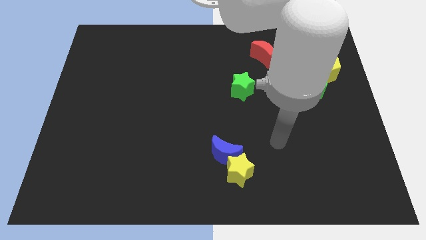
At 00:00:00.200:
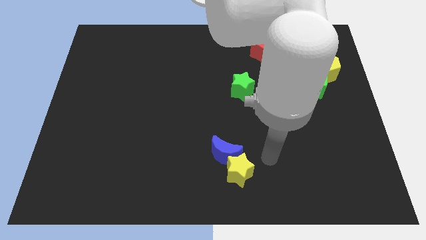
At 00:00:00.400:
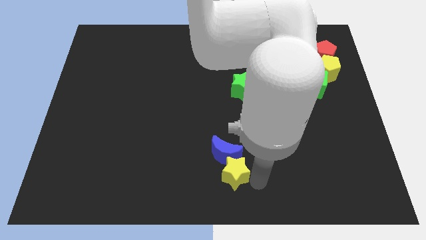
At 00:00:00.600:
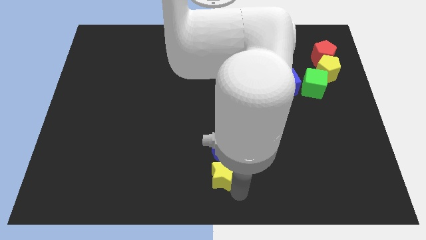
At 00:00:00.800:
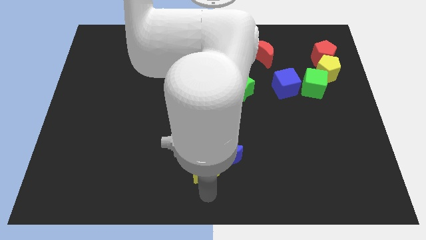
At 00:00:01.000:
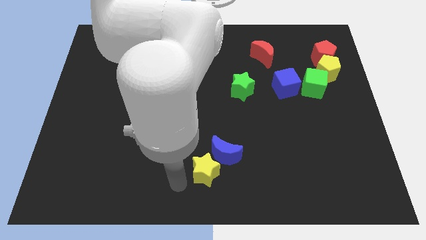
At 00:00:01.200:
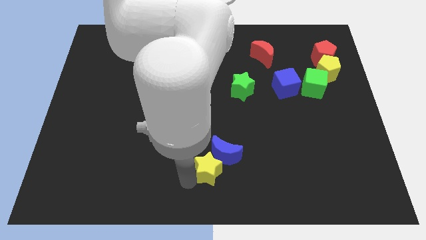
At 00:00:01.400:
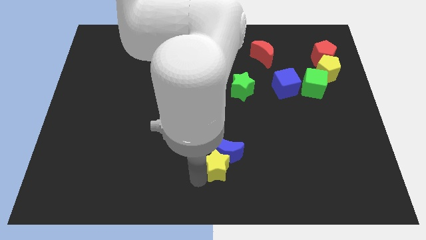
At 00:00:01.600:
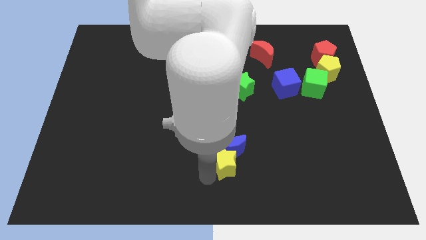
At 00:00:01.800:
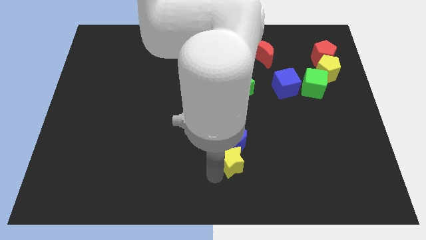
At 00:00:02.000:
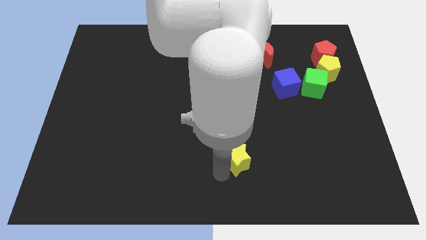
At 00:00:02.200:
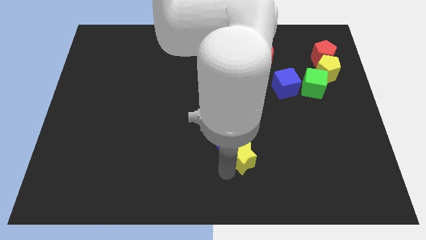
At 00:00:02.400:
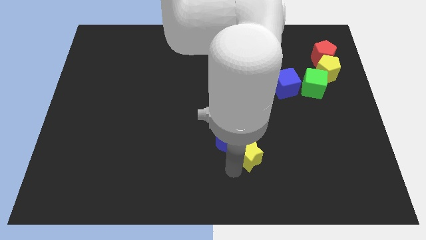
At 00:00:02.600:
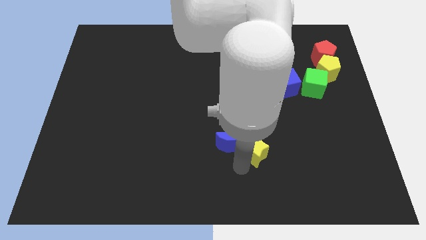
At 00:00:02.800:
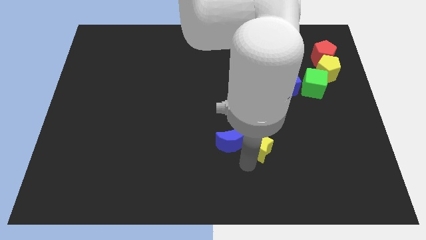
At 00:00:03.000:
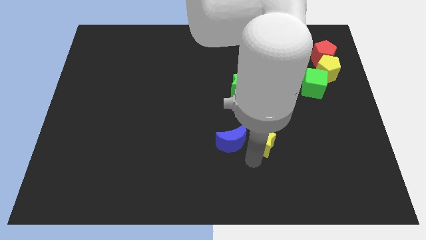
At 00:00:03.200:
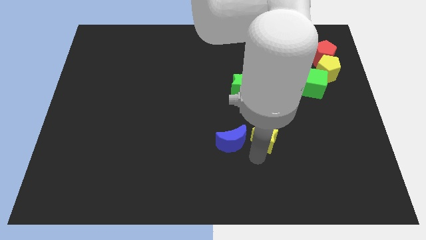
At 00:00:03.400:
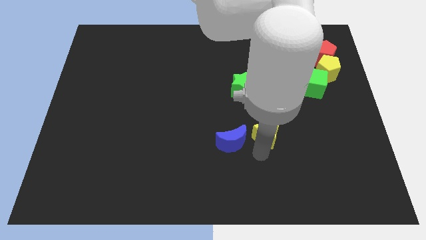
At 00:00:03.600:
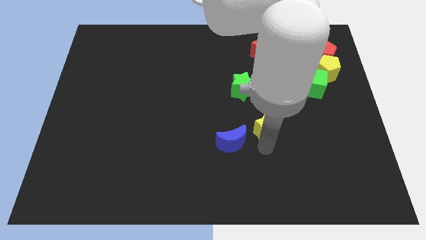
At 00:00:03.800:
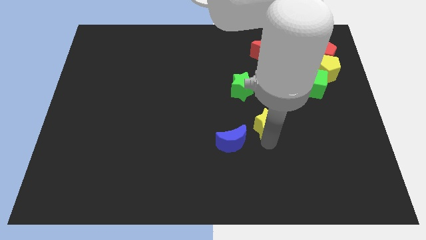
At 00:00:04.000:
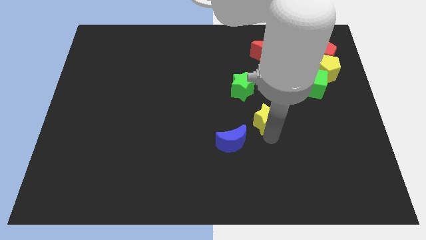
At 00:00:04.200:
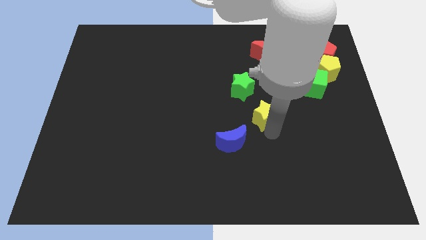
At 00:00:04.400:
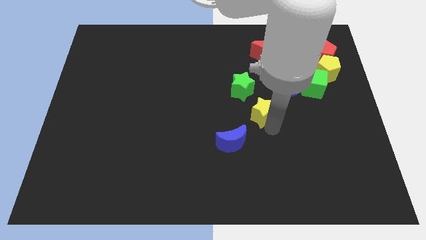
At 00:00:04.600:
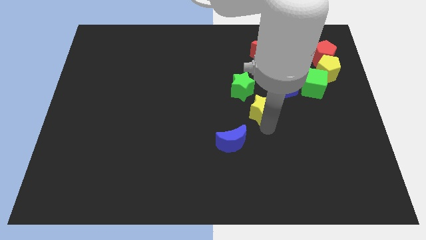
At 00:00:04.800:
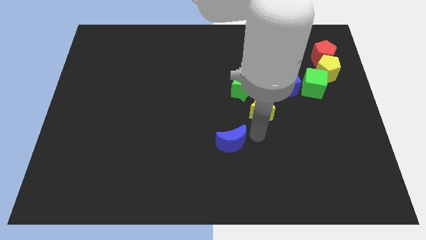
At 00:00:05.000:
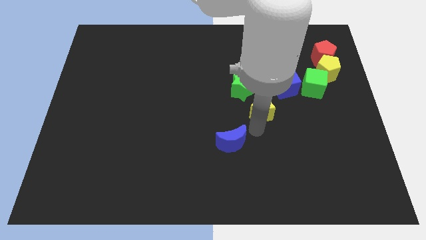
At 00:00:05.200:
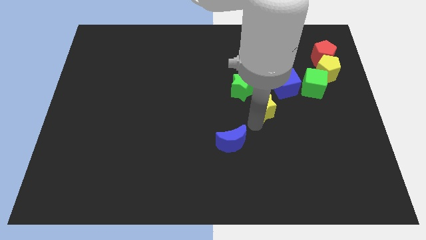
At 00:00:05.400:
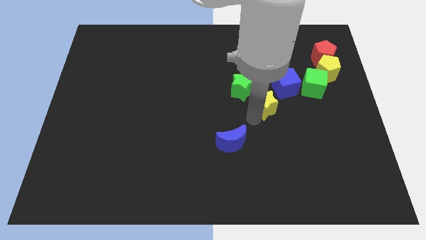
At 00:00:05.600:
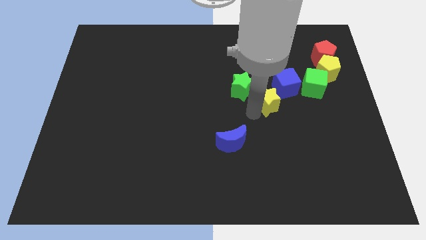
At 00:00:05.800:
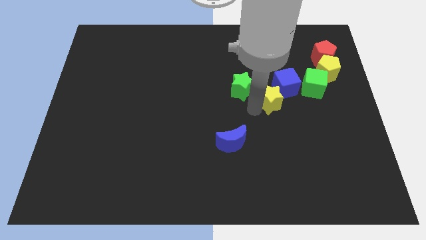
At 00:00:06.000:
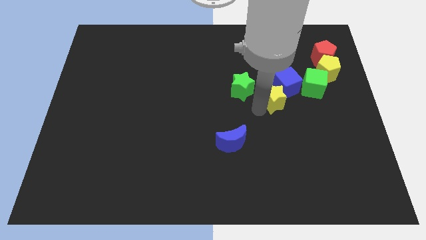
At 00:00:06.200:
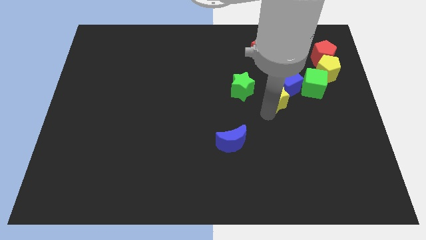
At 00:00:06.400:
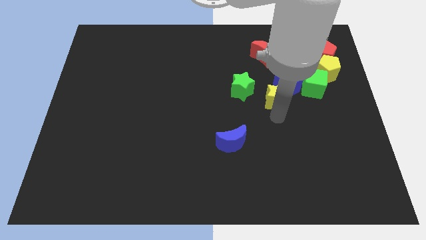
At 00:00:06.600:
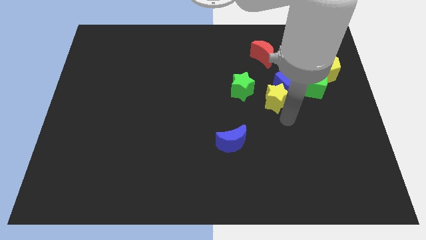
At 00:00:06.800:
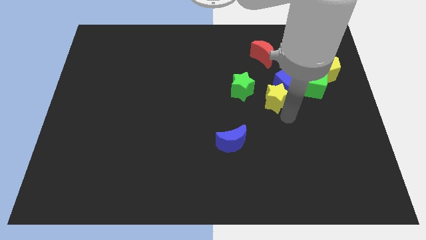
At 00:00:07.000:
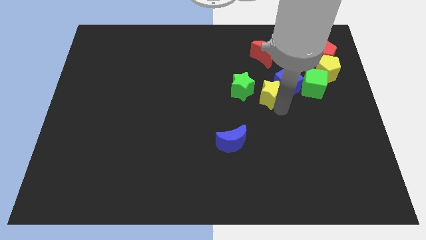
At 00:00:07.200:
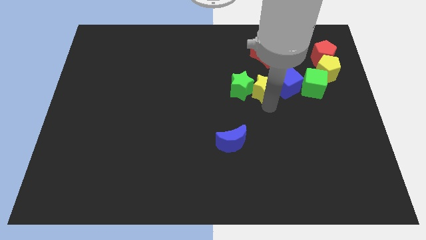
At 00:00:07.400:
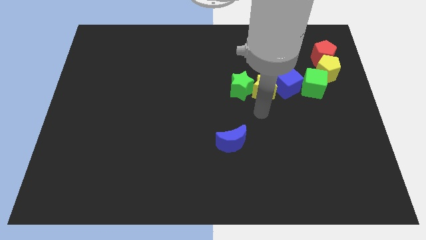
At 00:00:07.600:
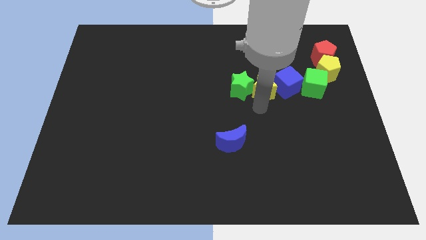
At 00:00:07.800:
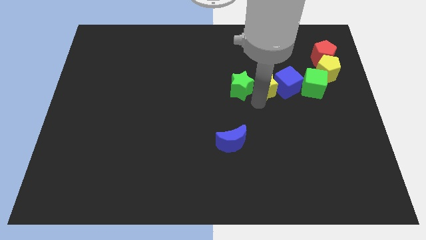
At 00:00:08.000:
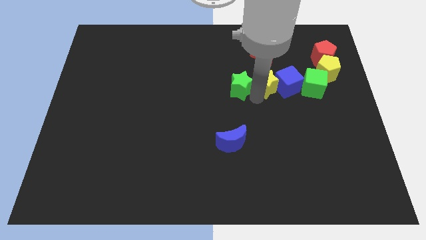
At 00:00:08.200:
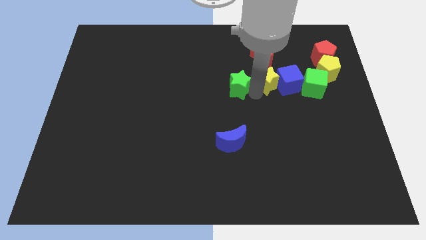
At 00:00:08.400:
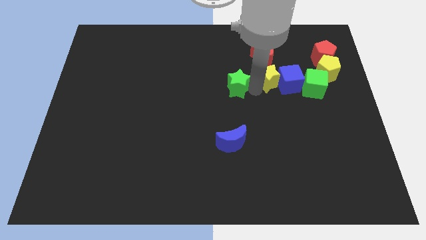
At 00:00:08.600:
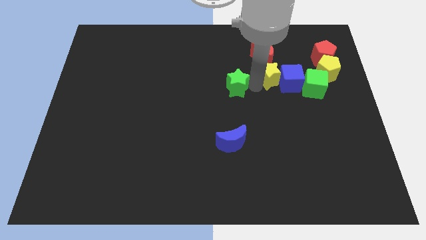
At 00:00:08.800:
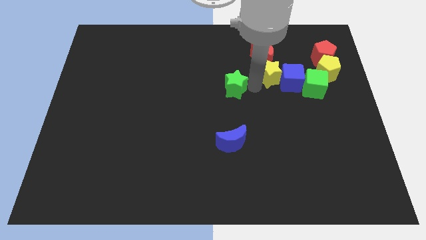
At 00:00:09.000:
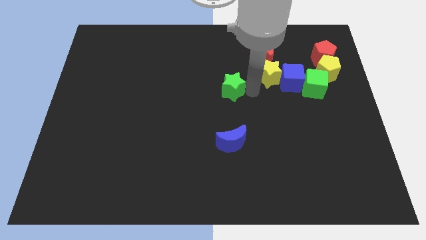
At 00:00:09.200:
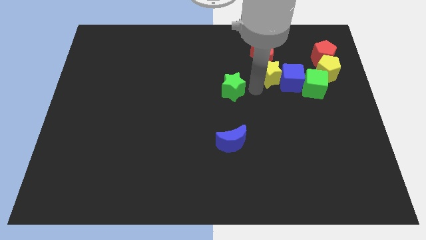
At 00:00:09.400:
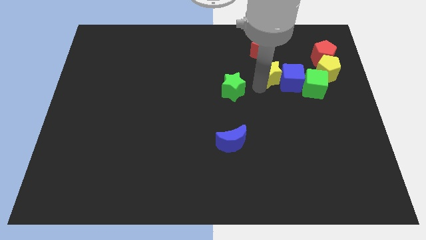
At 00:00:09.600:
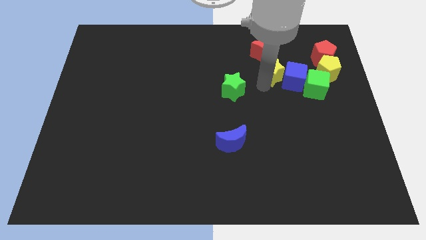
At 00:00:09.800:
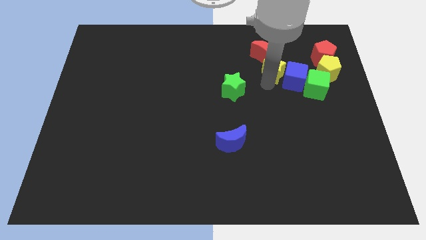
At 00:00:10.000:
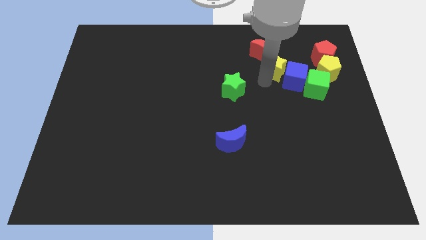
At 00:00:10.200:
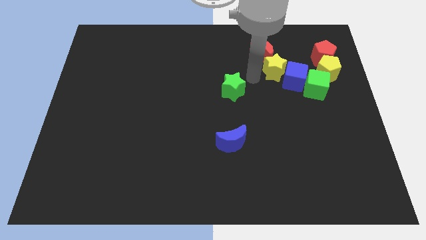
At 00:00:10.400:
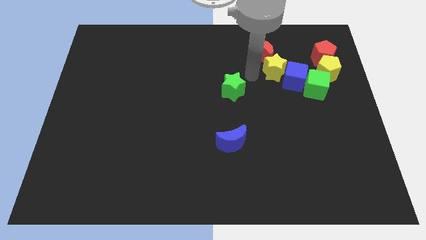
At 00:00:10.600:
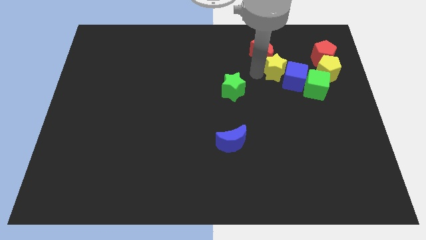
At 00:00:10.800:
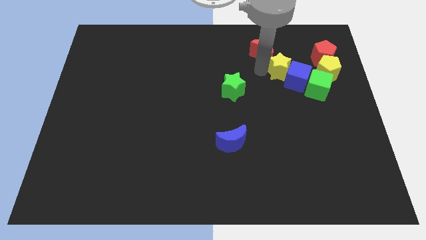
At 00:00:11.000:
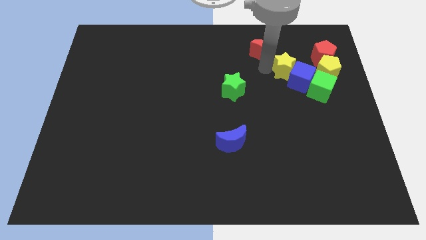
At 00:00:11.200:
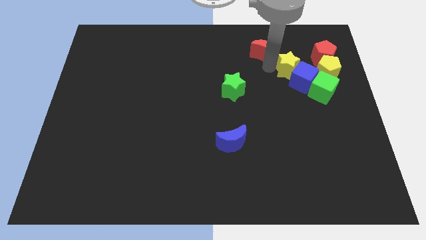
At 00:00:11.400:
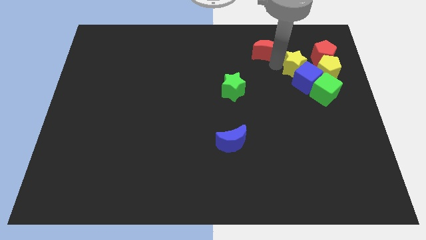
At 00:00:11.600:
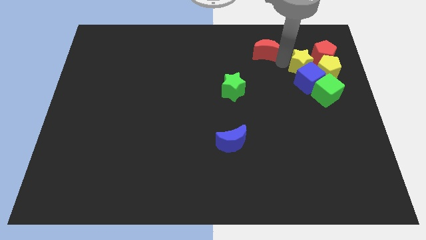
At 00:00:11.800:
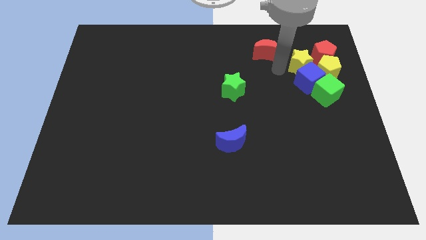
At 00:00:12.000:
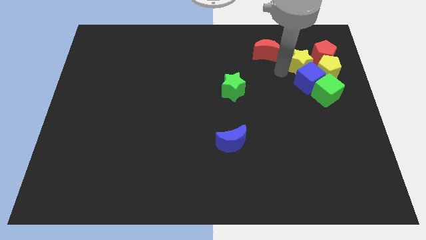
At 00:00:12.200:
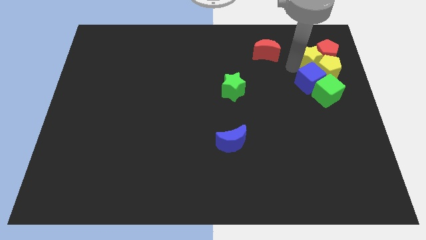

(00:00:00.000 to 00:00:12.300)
push the yellow star next to the red pentagon

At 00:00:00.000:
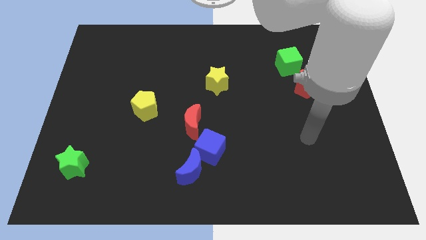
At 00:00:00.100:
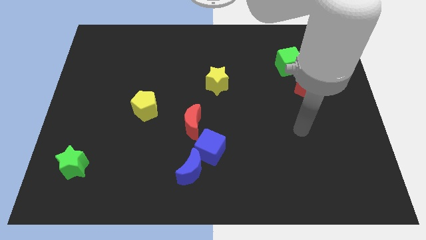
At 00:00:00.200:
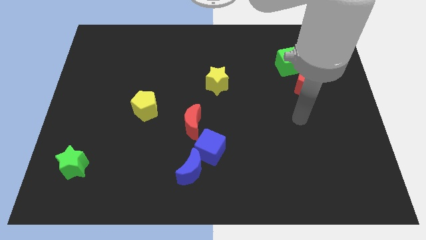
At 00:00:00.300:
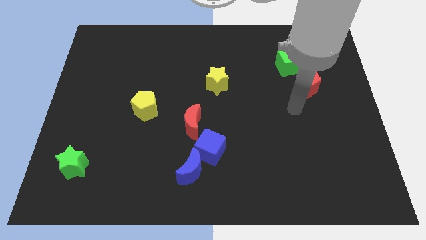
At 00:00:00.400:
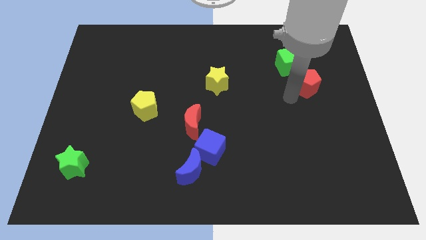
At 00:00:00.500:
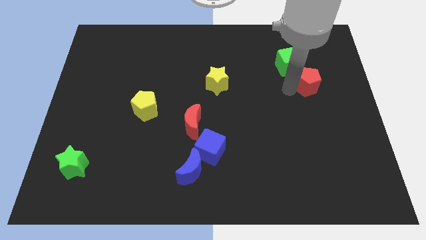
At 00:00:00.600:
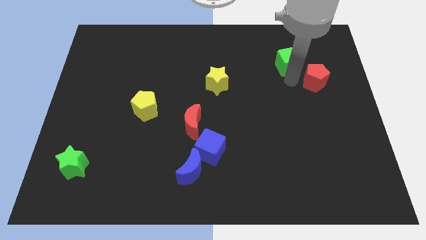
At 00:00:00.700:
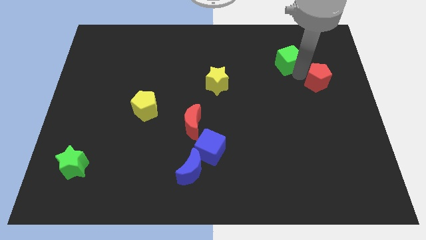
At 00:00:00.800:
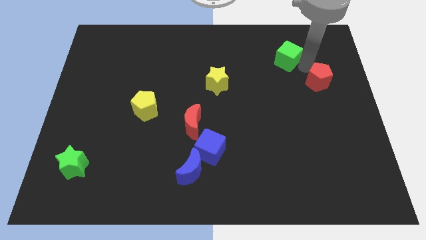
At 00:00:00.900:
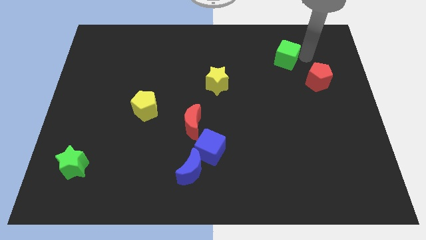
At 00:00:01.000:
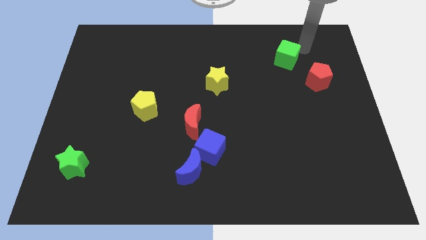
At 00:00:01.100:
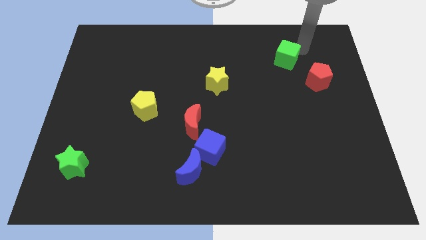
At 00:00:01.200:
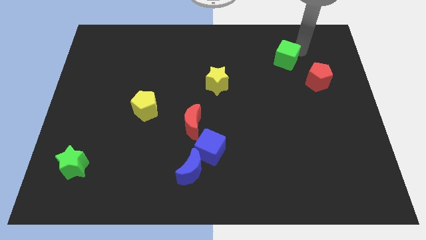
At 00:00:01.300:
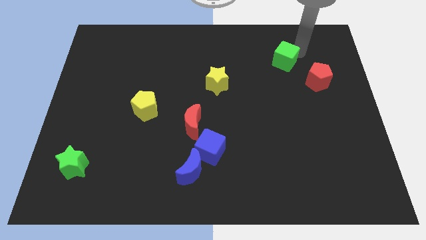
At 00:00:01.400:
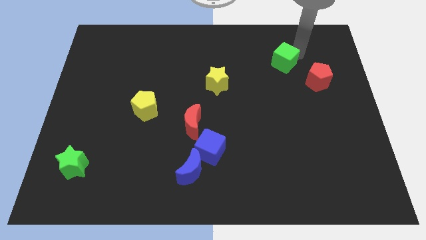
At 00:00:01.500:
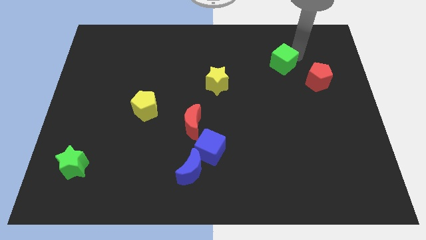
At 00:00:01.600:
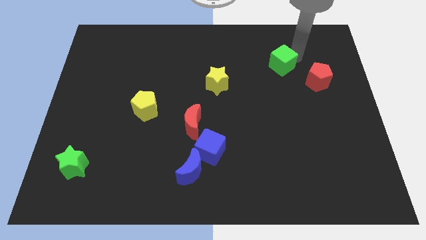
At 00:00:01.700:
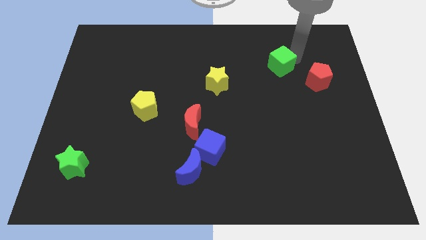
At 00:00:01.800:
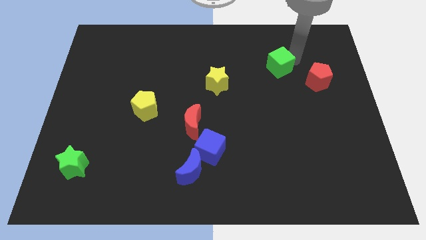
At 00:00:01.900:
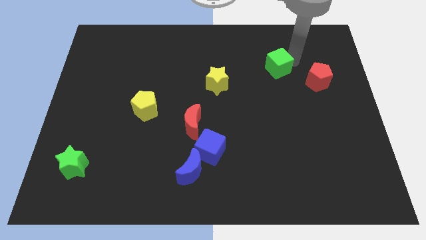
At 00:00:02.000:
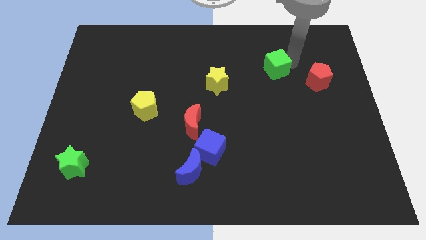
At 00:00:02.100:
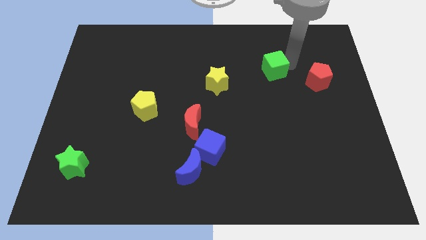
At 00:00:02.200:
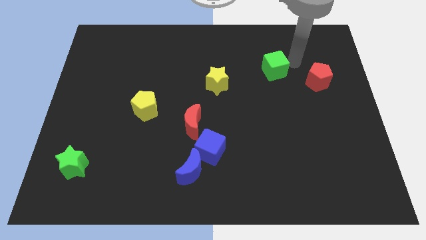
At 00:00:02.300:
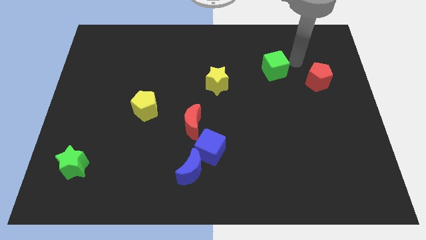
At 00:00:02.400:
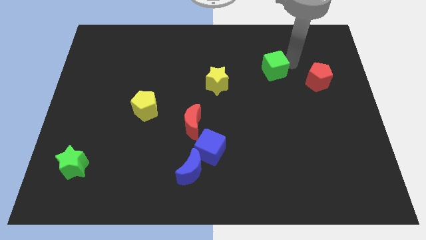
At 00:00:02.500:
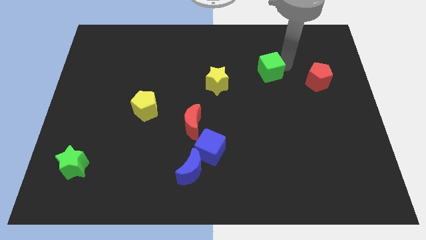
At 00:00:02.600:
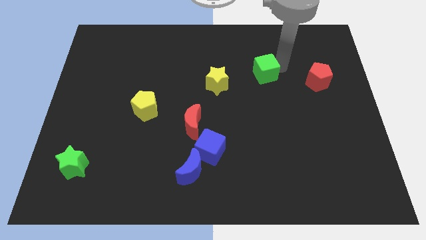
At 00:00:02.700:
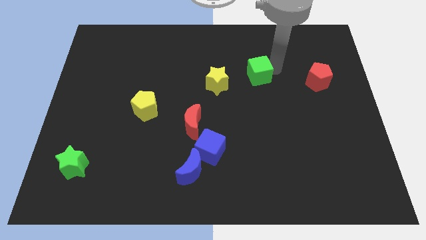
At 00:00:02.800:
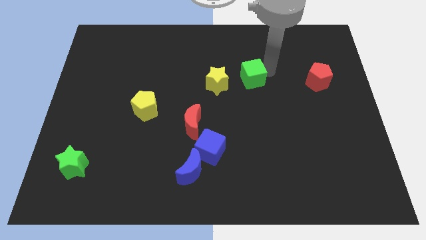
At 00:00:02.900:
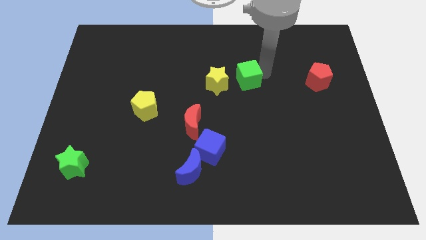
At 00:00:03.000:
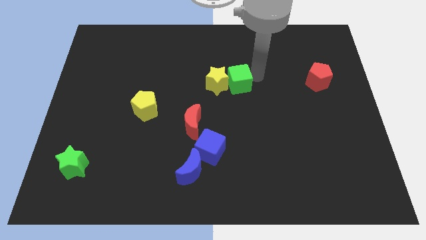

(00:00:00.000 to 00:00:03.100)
move the green cube next to the yellow star
